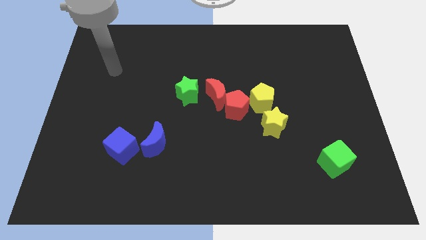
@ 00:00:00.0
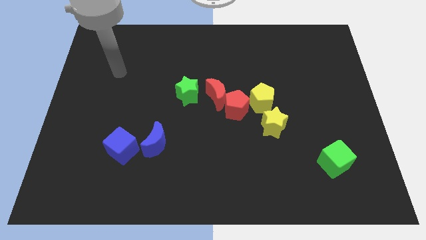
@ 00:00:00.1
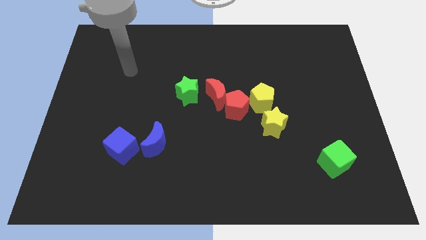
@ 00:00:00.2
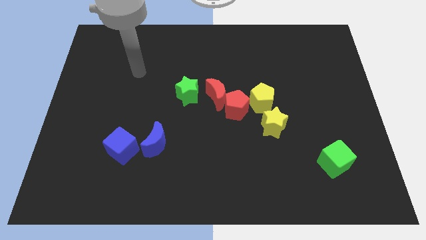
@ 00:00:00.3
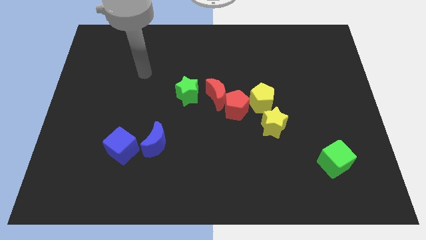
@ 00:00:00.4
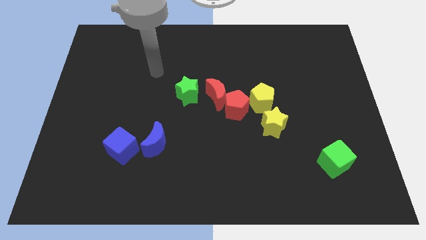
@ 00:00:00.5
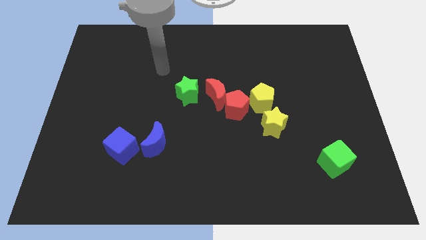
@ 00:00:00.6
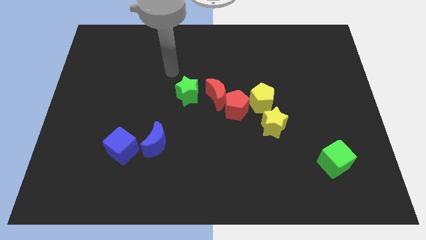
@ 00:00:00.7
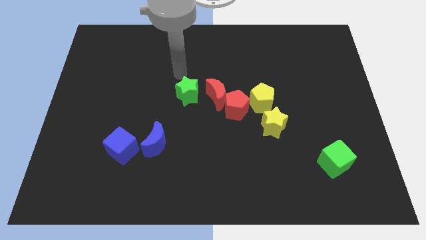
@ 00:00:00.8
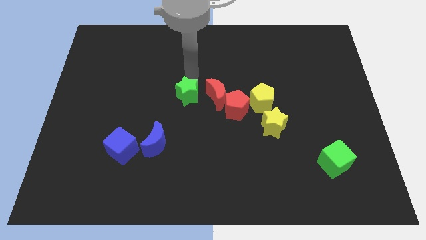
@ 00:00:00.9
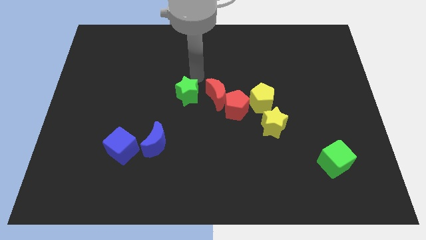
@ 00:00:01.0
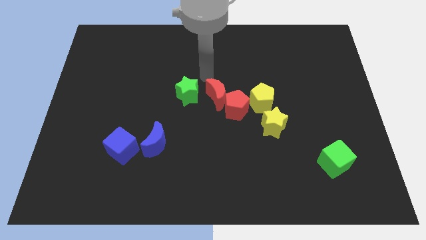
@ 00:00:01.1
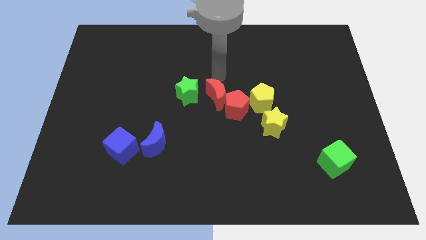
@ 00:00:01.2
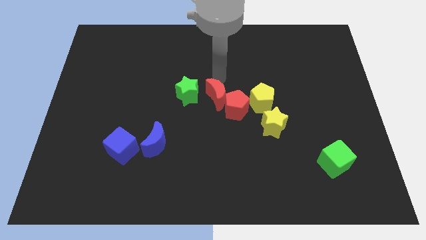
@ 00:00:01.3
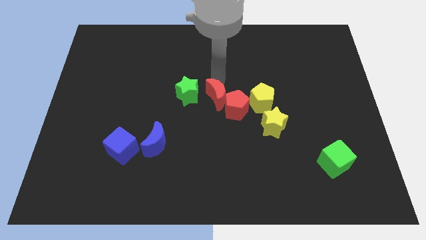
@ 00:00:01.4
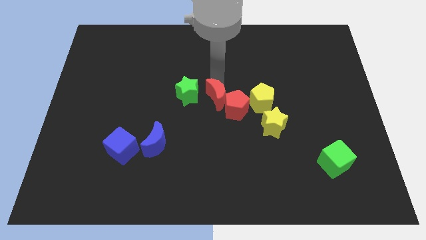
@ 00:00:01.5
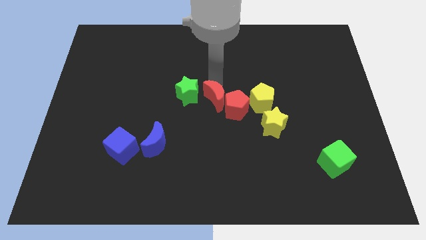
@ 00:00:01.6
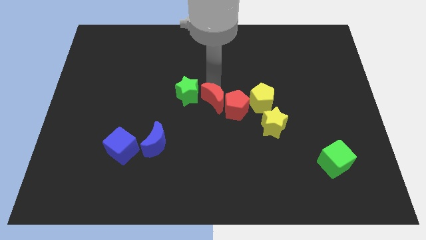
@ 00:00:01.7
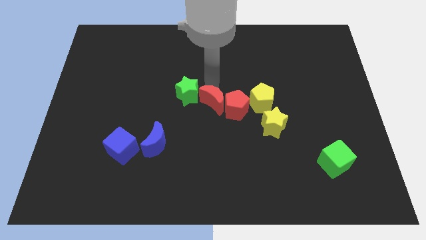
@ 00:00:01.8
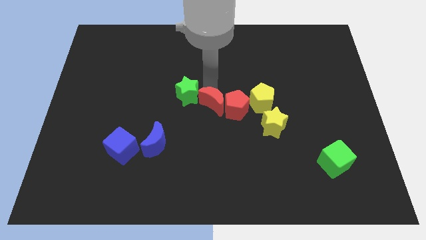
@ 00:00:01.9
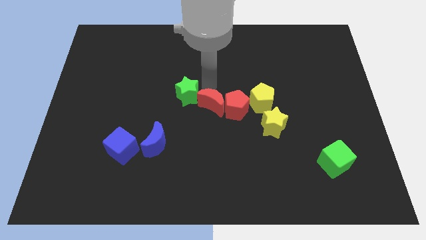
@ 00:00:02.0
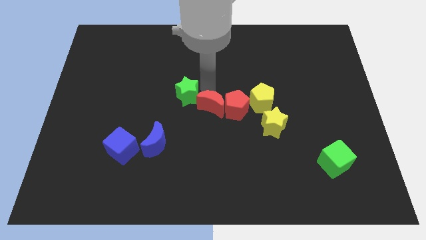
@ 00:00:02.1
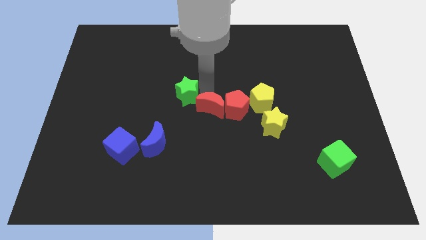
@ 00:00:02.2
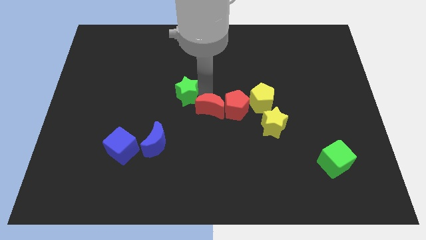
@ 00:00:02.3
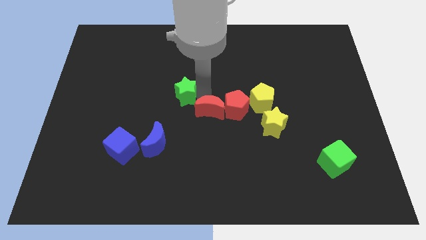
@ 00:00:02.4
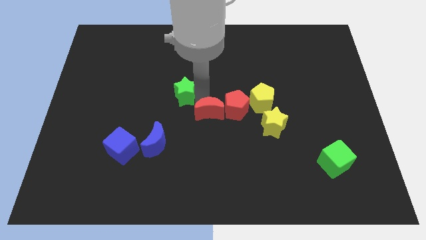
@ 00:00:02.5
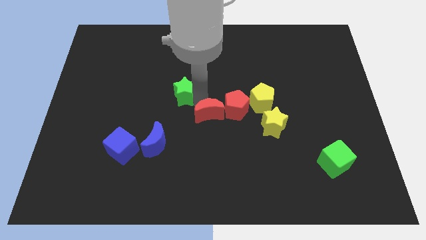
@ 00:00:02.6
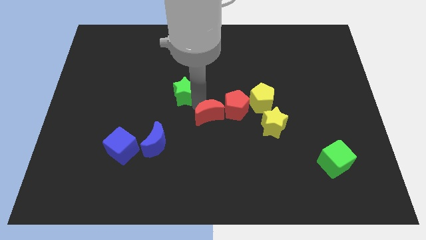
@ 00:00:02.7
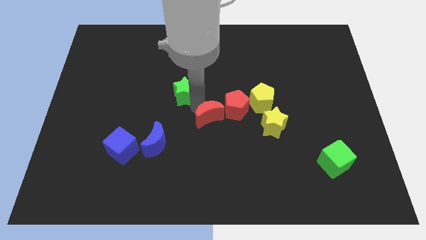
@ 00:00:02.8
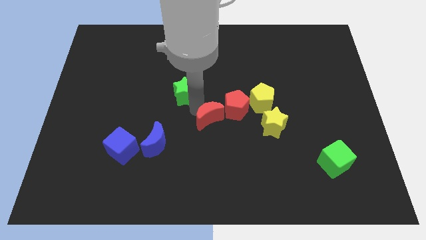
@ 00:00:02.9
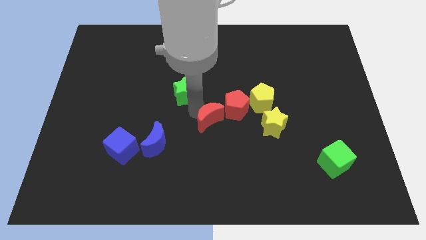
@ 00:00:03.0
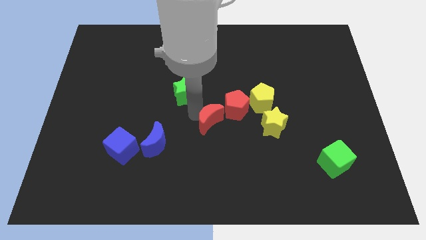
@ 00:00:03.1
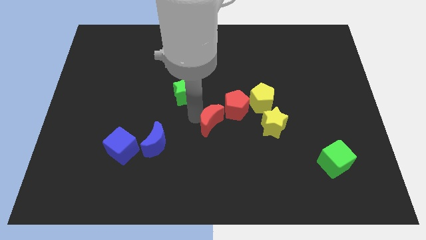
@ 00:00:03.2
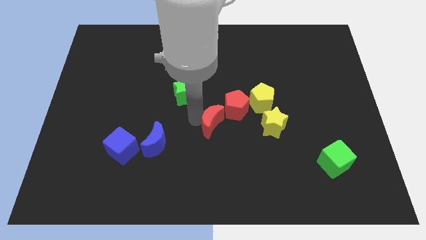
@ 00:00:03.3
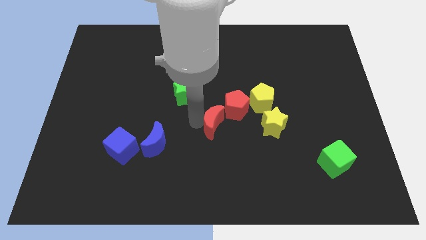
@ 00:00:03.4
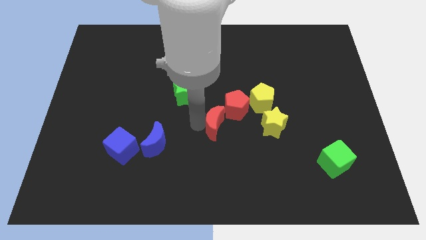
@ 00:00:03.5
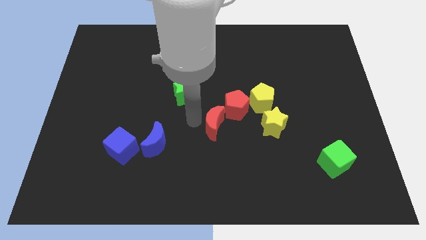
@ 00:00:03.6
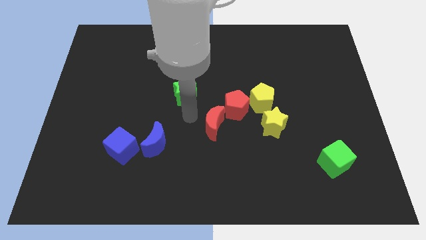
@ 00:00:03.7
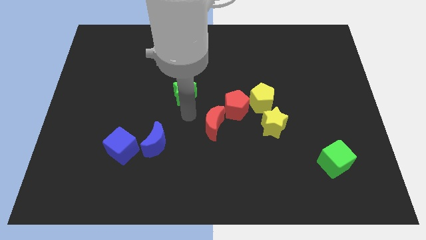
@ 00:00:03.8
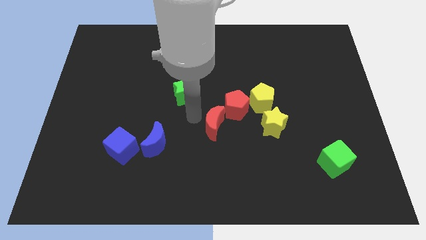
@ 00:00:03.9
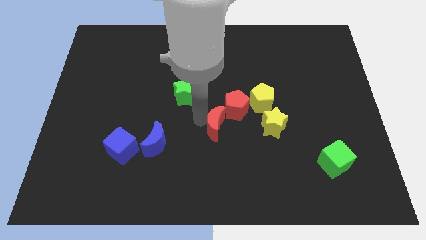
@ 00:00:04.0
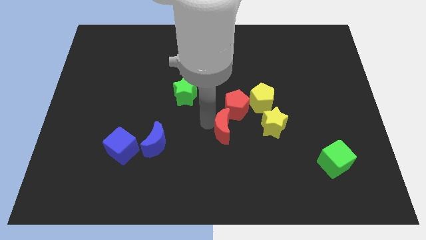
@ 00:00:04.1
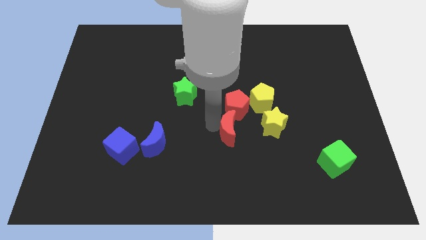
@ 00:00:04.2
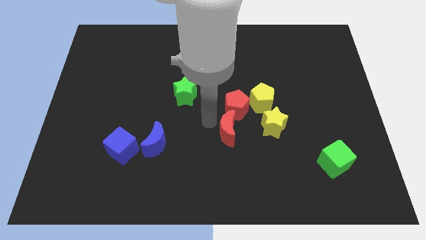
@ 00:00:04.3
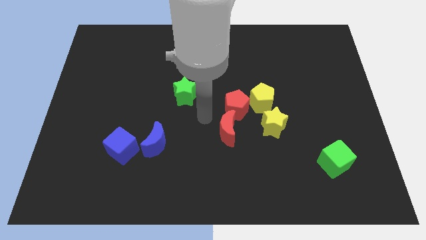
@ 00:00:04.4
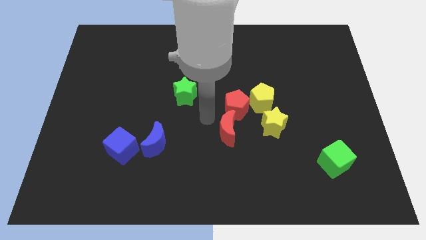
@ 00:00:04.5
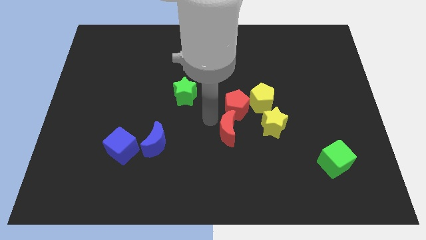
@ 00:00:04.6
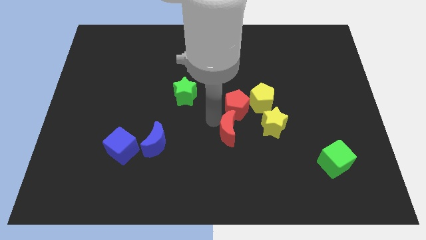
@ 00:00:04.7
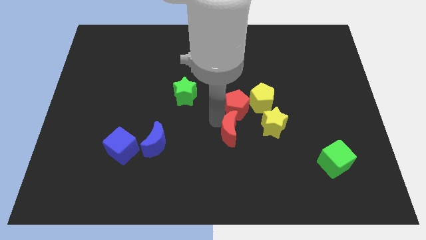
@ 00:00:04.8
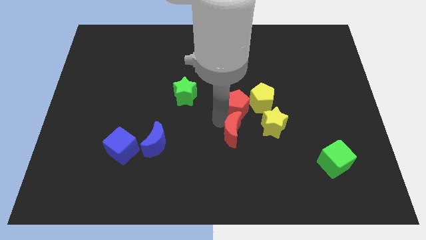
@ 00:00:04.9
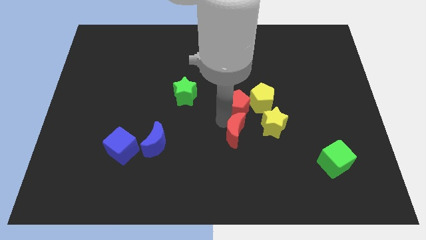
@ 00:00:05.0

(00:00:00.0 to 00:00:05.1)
push the red moon to the bottom left of the yellow star
